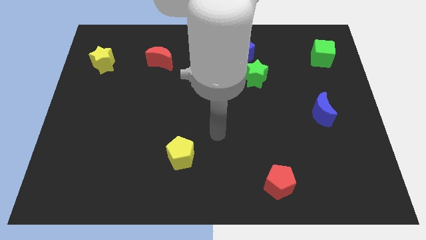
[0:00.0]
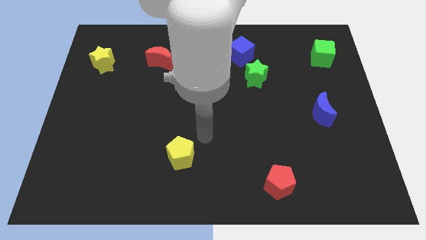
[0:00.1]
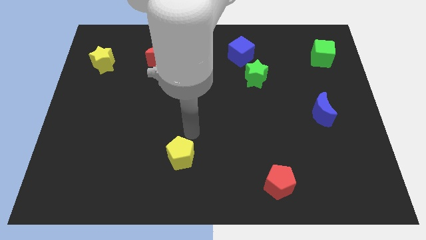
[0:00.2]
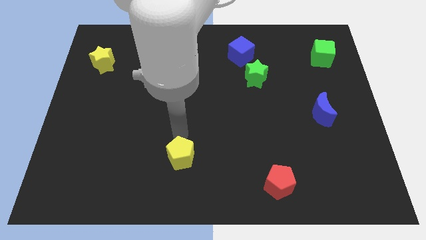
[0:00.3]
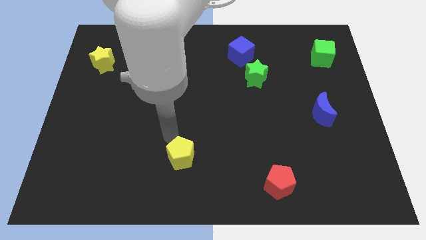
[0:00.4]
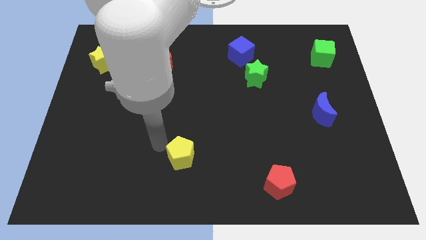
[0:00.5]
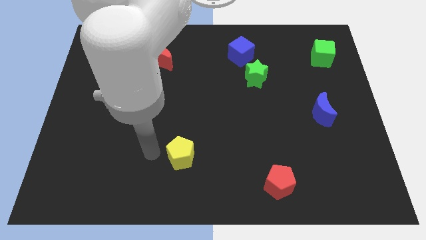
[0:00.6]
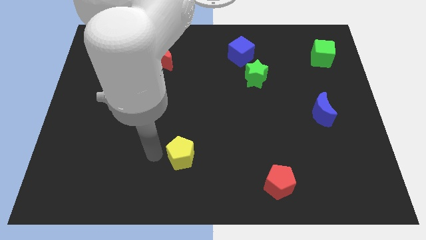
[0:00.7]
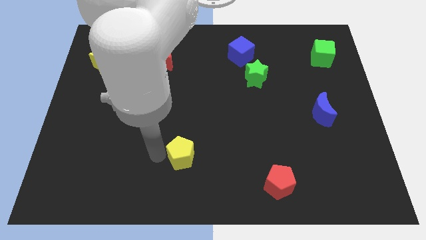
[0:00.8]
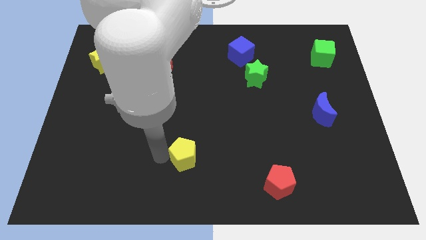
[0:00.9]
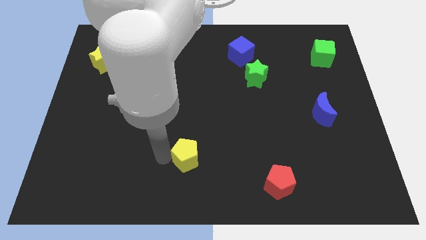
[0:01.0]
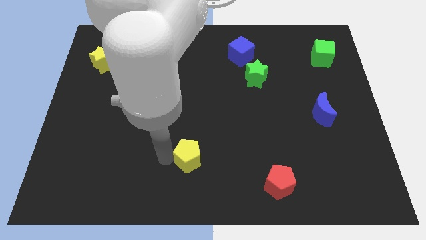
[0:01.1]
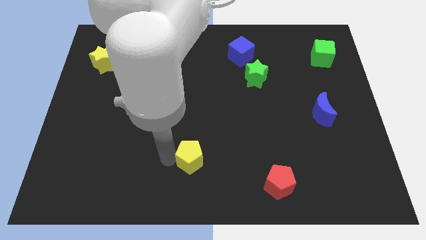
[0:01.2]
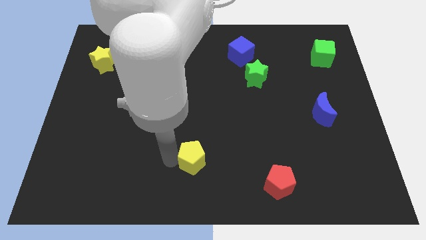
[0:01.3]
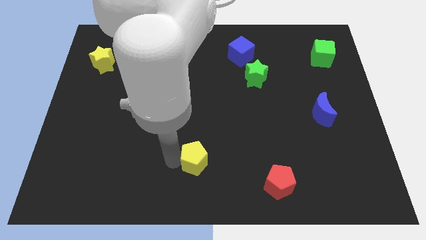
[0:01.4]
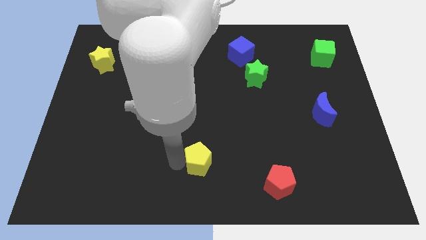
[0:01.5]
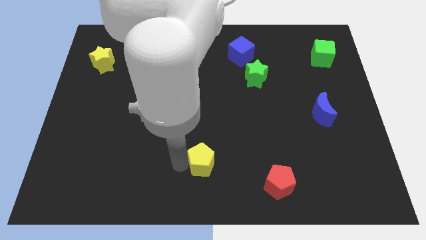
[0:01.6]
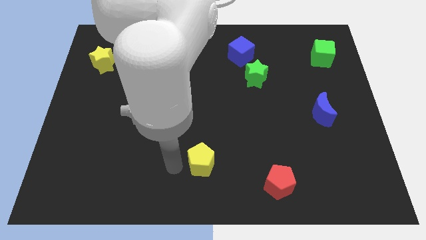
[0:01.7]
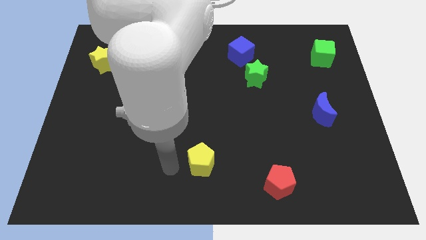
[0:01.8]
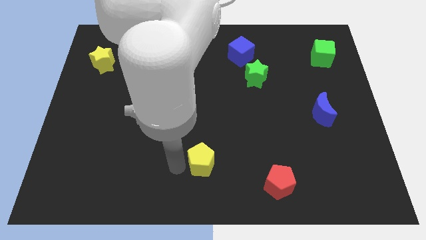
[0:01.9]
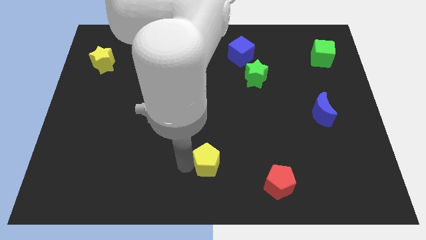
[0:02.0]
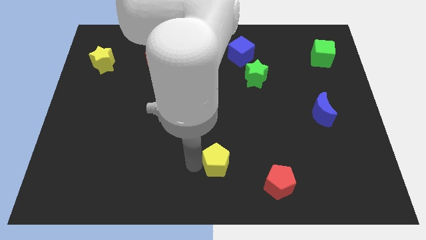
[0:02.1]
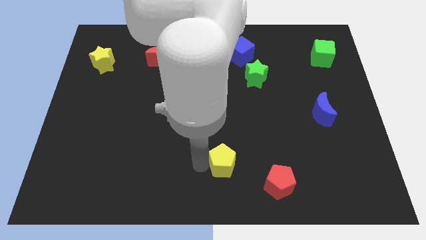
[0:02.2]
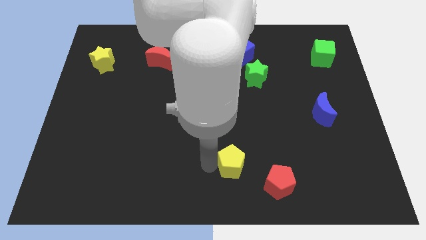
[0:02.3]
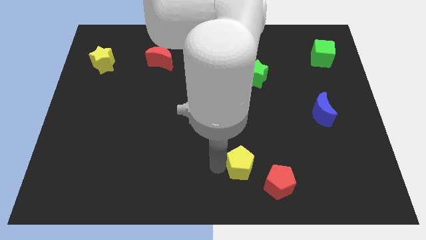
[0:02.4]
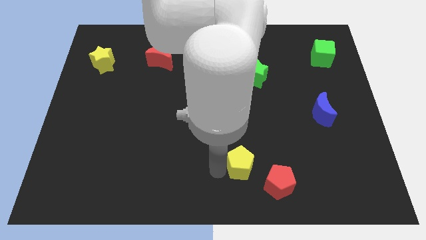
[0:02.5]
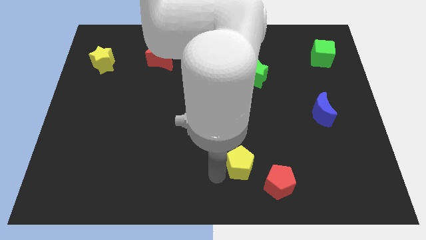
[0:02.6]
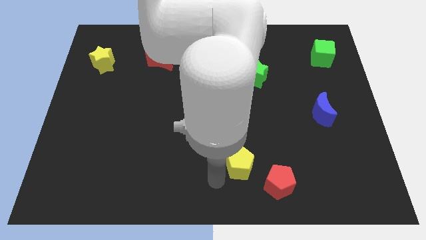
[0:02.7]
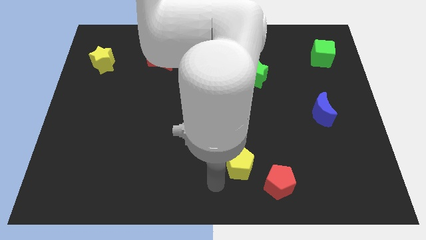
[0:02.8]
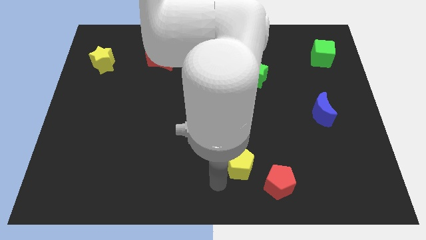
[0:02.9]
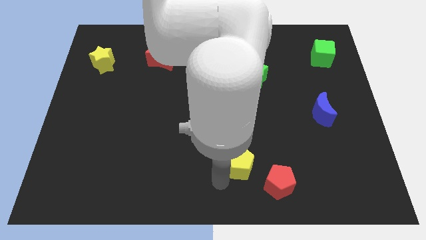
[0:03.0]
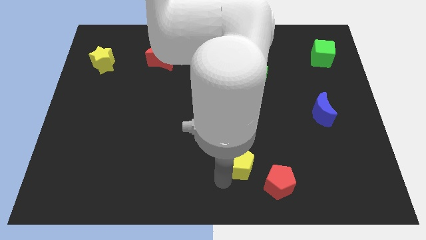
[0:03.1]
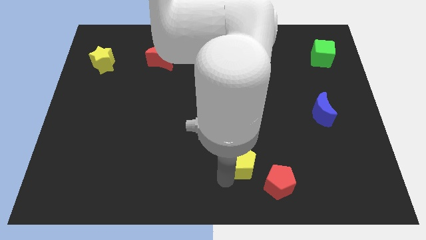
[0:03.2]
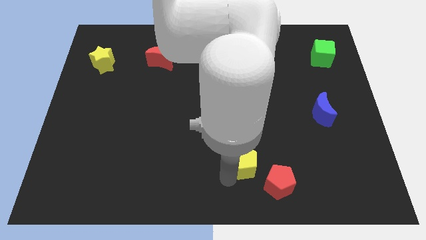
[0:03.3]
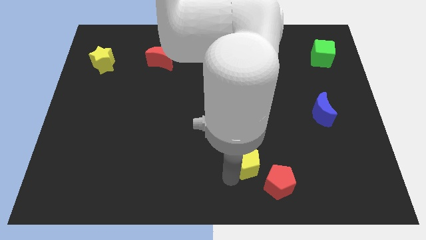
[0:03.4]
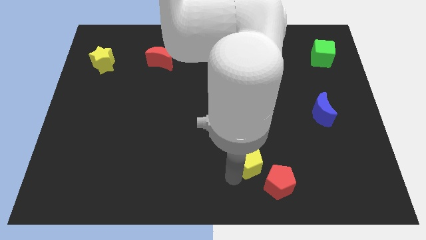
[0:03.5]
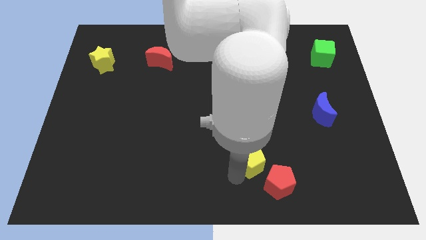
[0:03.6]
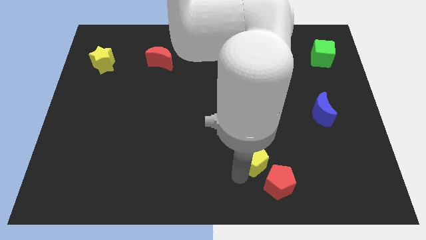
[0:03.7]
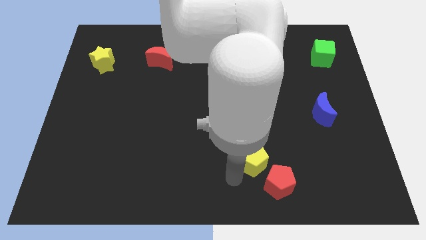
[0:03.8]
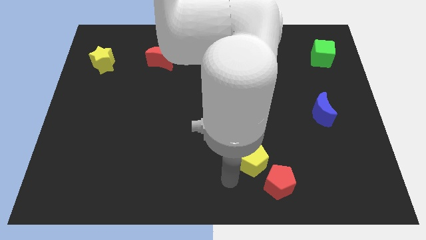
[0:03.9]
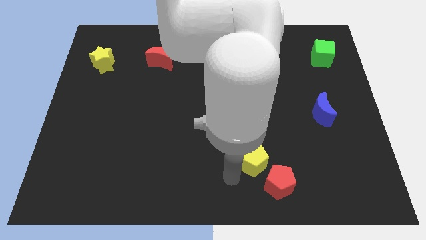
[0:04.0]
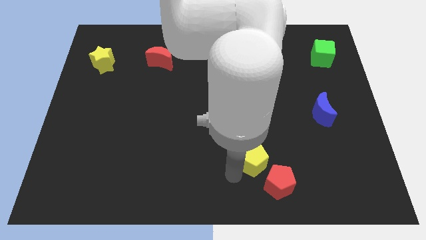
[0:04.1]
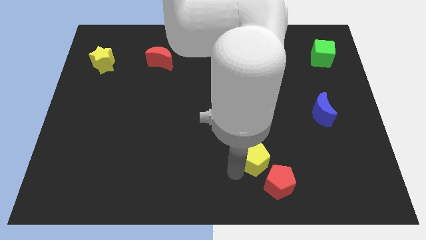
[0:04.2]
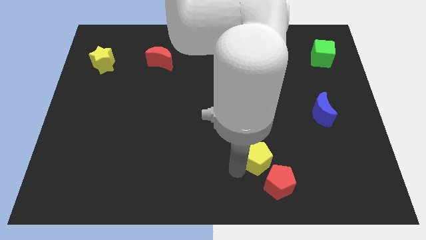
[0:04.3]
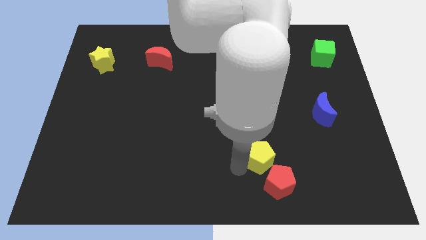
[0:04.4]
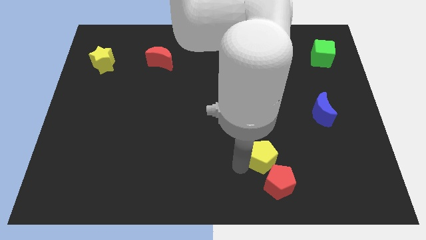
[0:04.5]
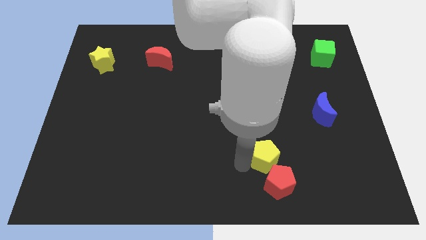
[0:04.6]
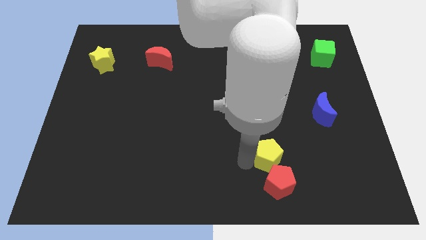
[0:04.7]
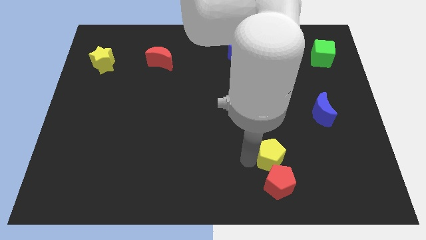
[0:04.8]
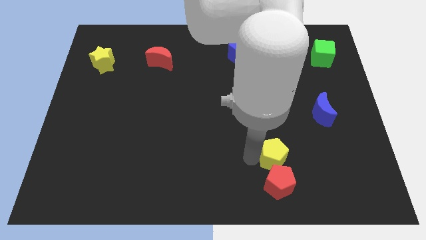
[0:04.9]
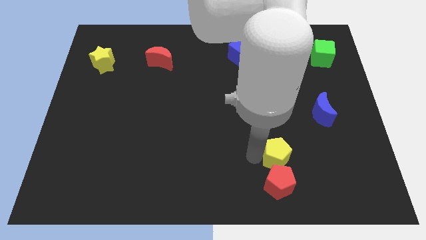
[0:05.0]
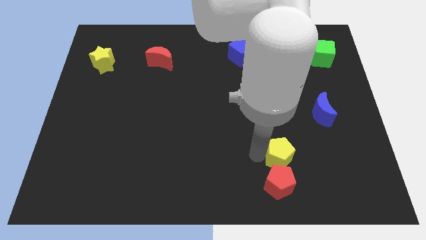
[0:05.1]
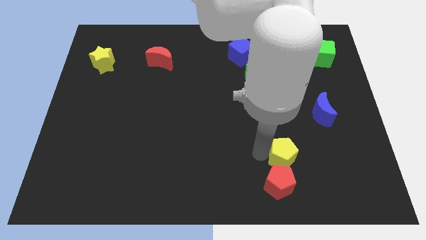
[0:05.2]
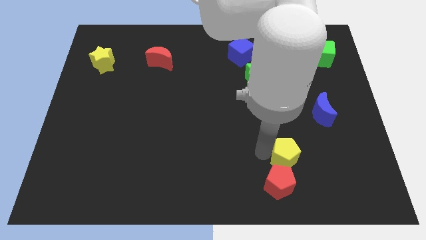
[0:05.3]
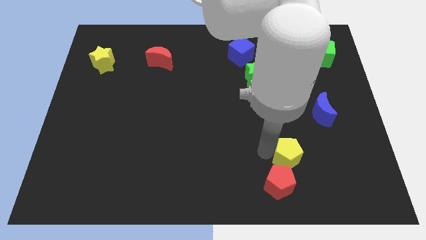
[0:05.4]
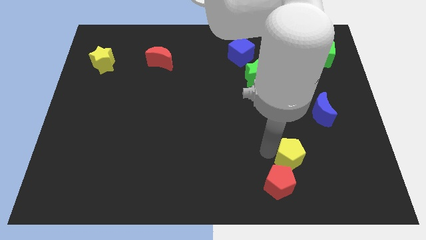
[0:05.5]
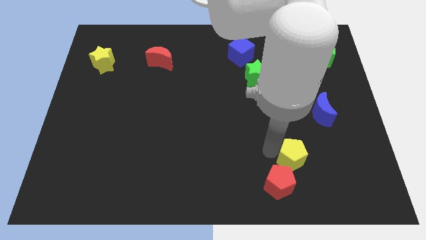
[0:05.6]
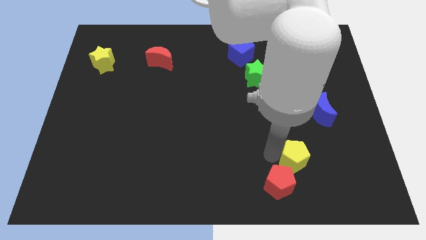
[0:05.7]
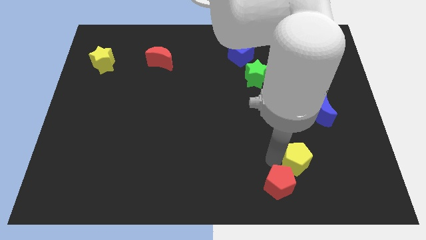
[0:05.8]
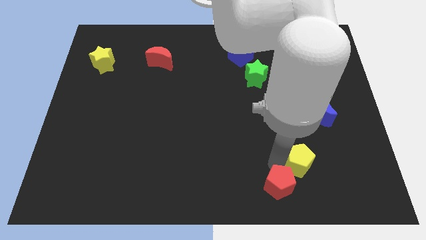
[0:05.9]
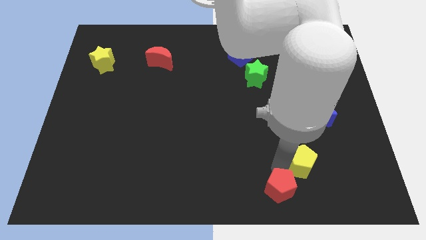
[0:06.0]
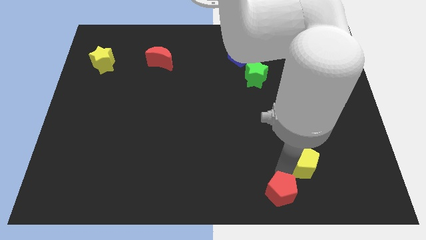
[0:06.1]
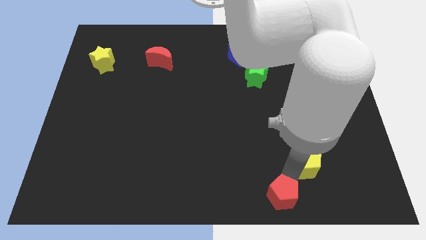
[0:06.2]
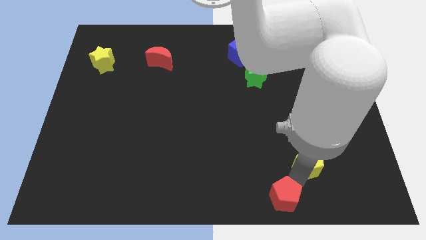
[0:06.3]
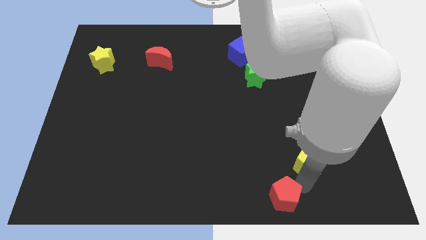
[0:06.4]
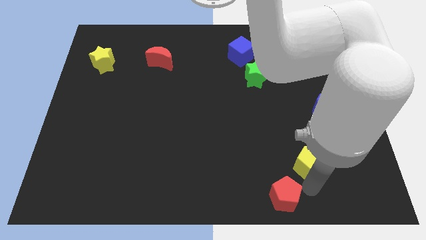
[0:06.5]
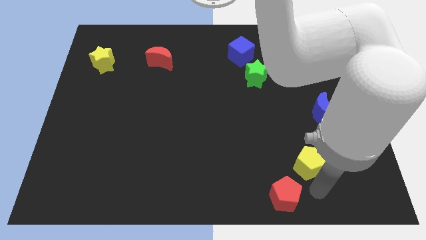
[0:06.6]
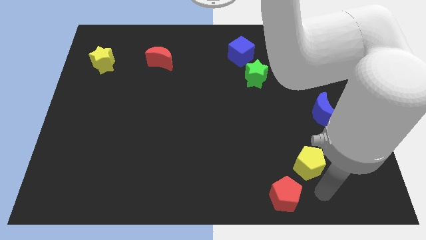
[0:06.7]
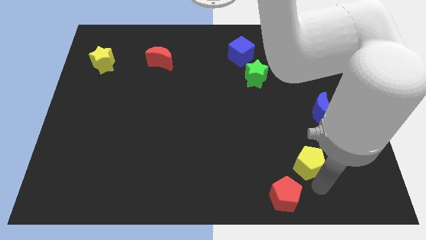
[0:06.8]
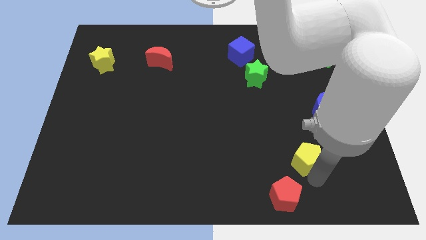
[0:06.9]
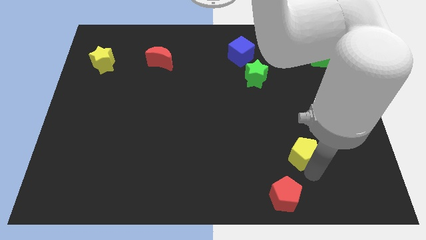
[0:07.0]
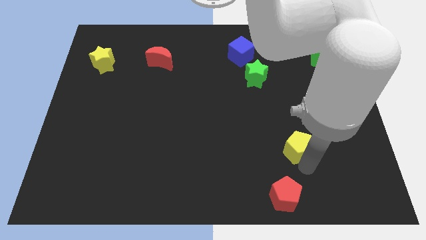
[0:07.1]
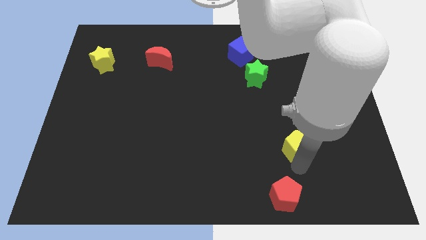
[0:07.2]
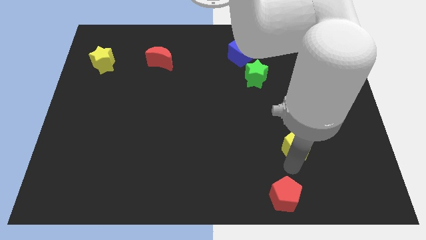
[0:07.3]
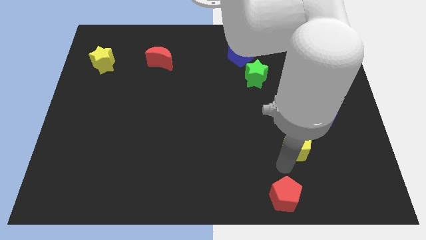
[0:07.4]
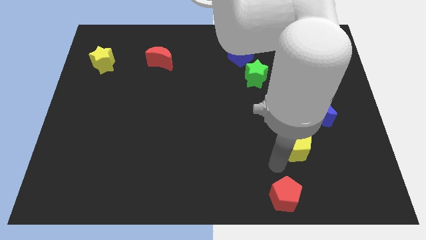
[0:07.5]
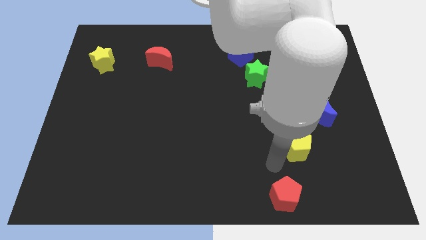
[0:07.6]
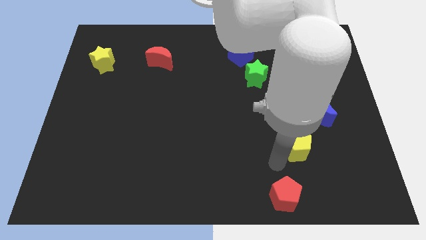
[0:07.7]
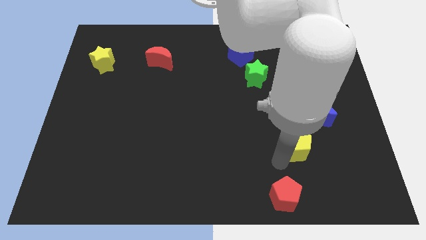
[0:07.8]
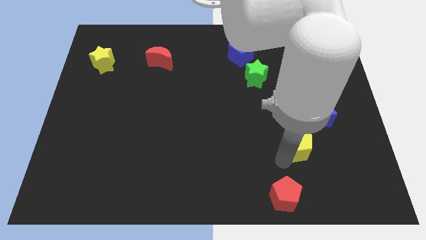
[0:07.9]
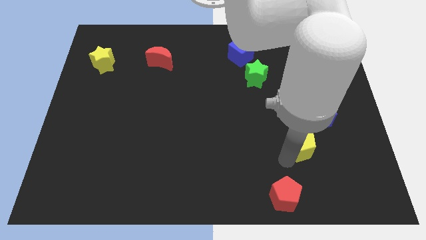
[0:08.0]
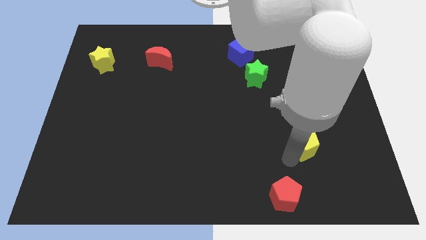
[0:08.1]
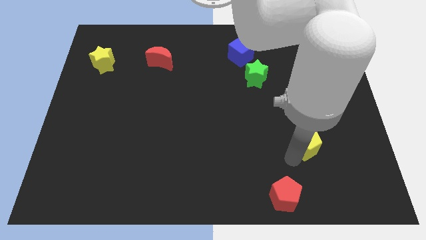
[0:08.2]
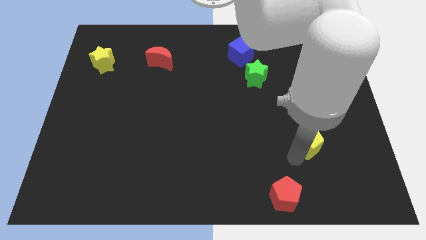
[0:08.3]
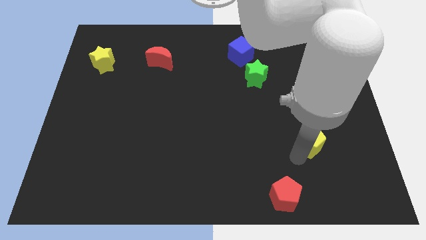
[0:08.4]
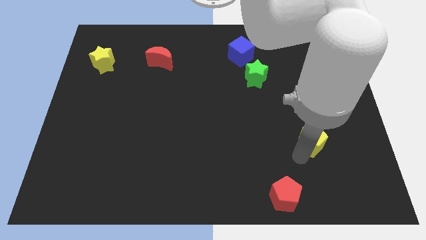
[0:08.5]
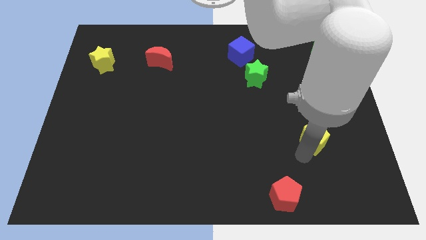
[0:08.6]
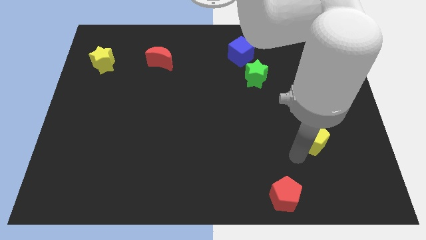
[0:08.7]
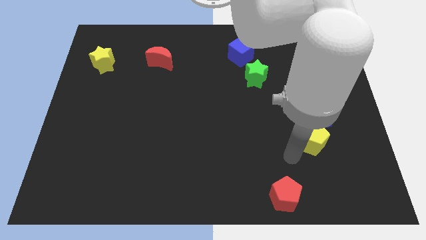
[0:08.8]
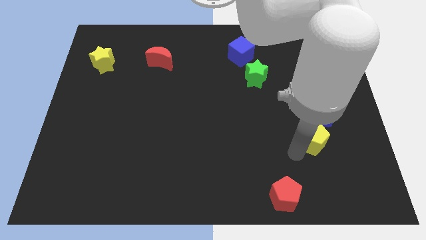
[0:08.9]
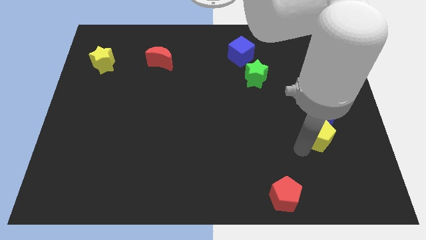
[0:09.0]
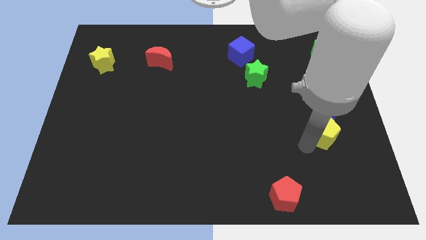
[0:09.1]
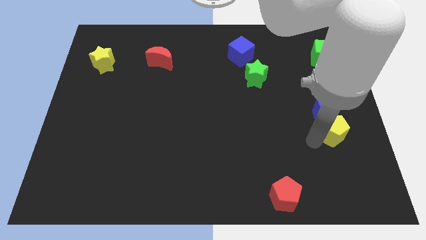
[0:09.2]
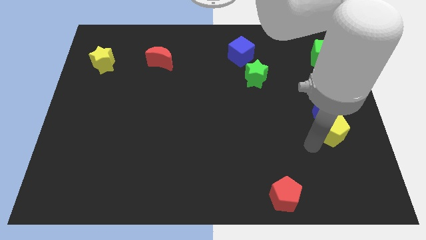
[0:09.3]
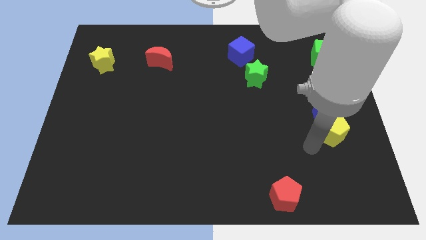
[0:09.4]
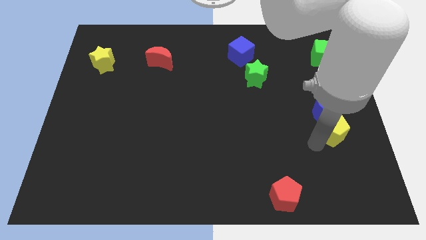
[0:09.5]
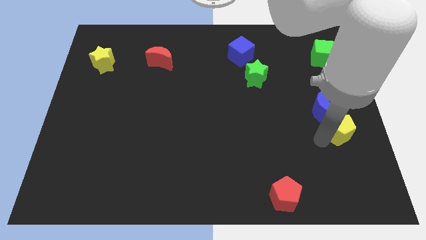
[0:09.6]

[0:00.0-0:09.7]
put the yellow pentagon to the center right
